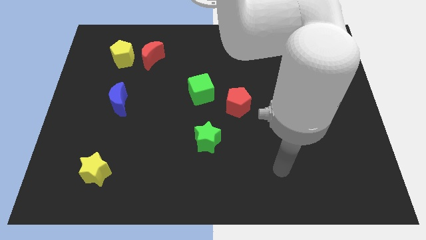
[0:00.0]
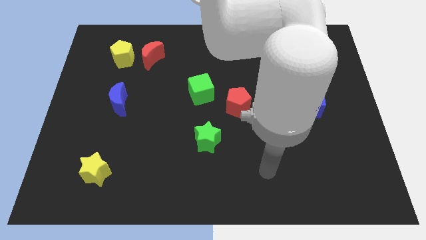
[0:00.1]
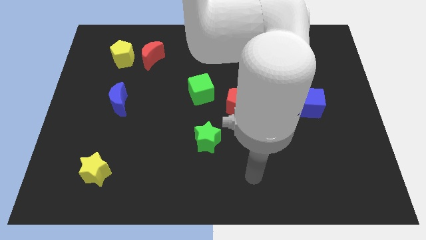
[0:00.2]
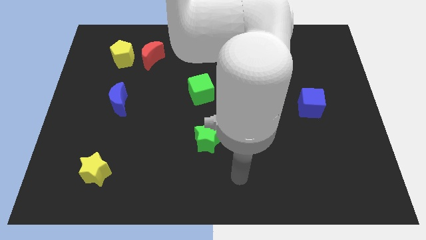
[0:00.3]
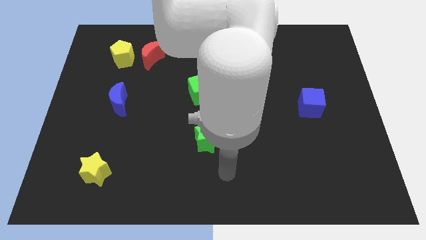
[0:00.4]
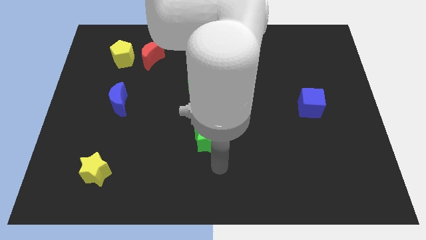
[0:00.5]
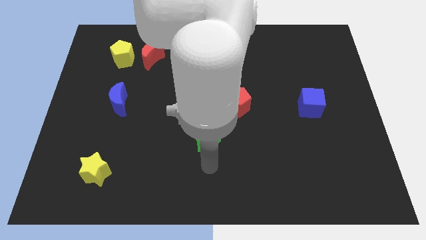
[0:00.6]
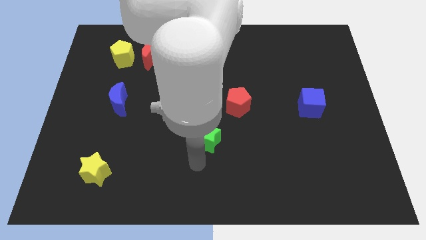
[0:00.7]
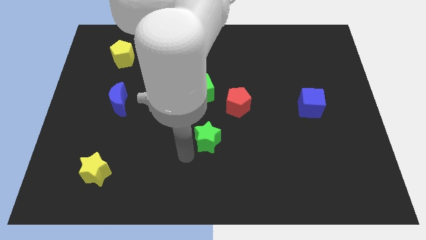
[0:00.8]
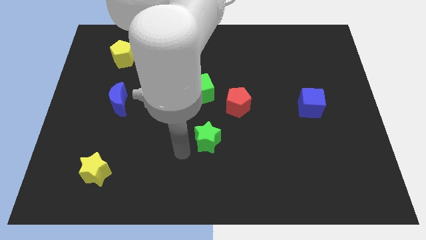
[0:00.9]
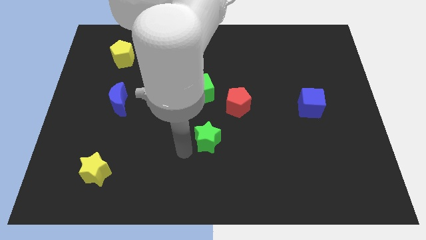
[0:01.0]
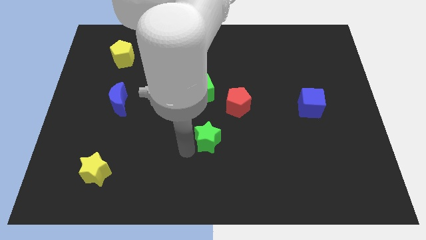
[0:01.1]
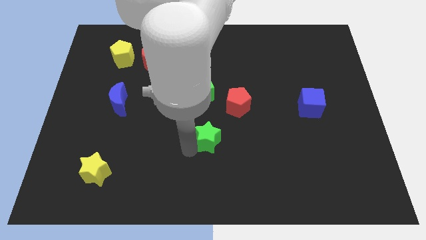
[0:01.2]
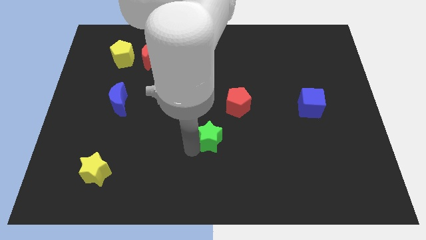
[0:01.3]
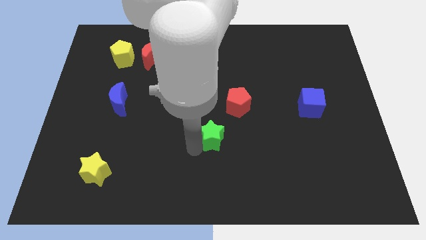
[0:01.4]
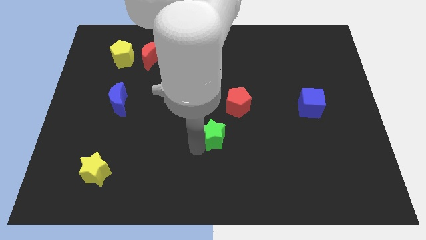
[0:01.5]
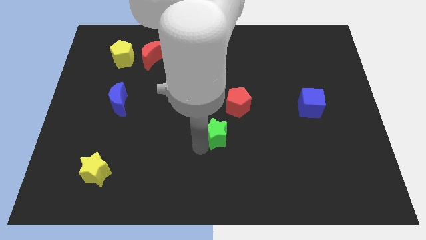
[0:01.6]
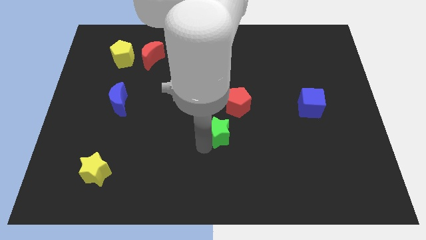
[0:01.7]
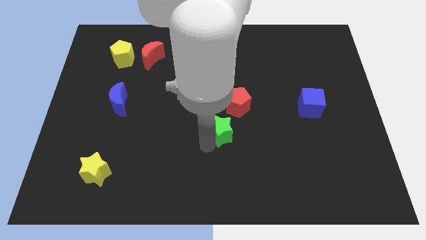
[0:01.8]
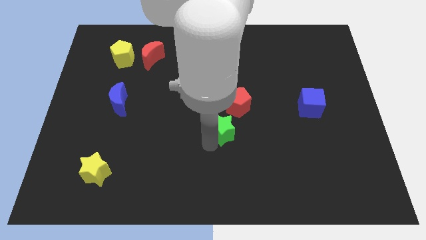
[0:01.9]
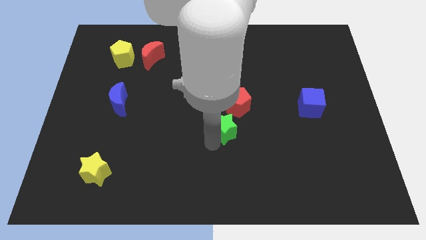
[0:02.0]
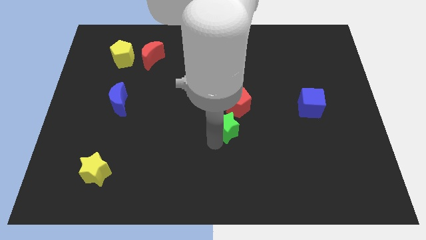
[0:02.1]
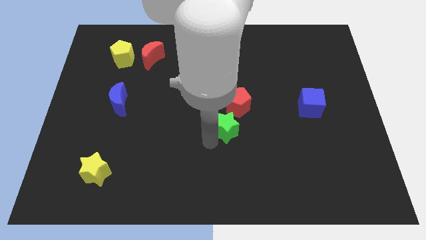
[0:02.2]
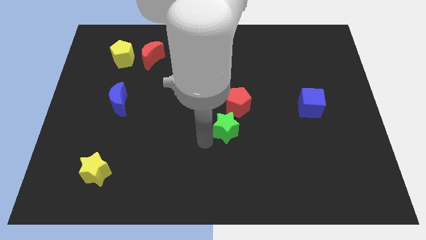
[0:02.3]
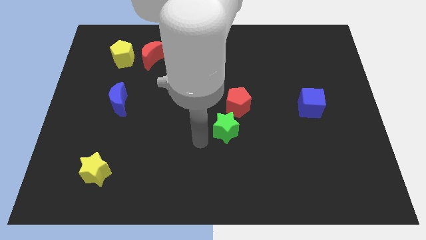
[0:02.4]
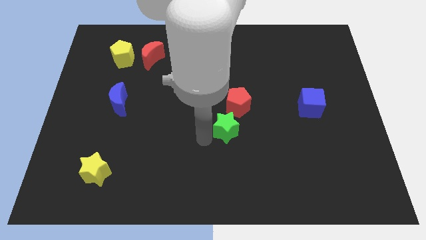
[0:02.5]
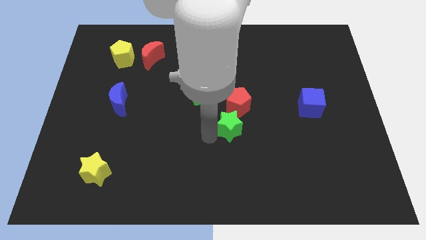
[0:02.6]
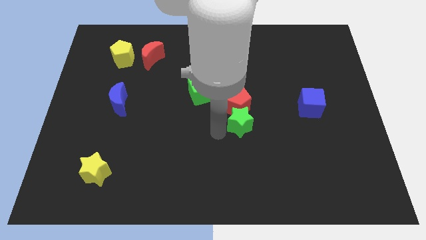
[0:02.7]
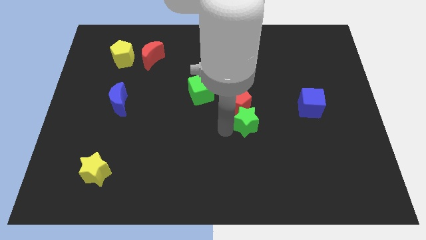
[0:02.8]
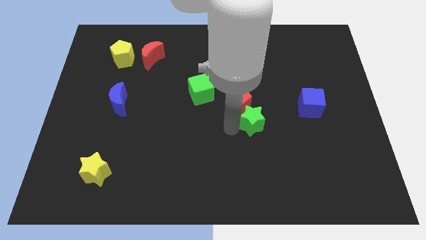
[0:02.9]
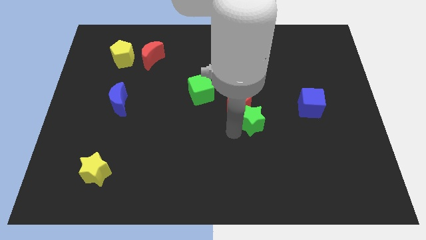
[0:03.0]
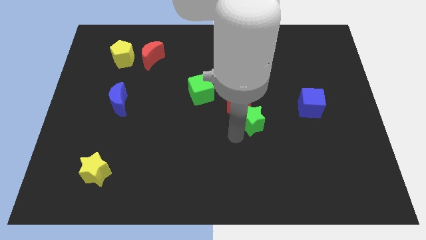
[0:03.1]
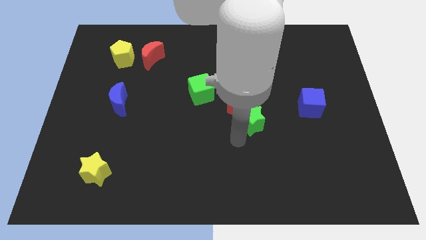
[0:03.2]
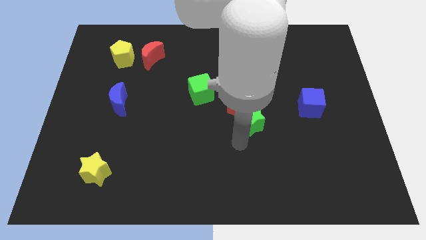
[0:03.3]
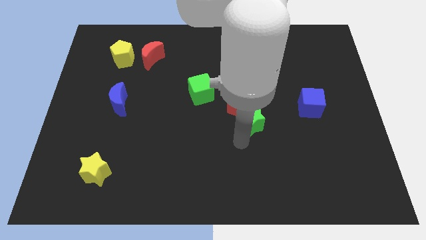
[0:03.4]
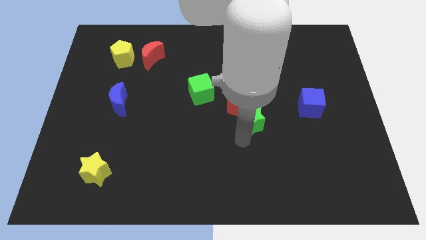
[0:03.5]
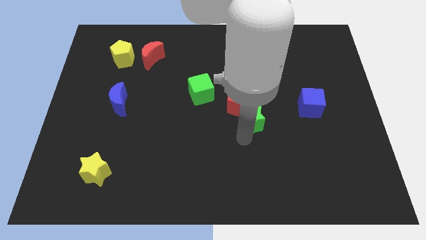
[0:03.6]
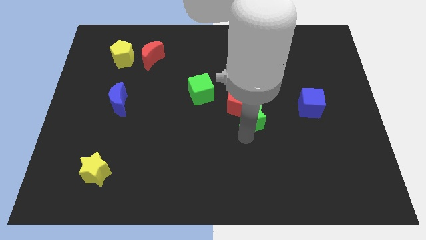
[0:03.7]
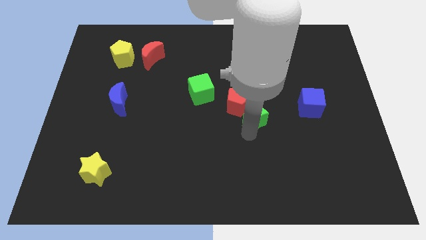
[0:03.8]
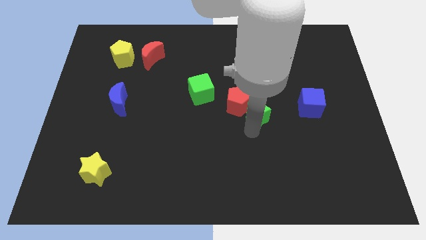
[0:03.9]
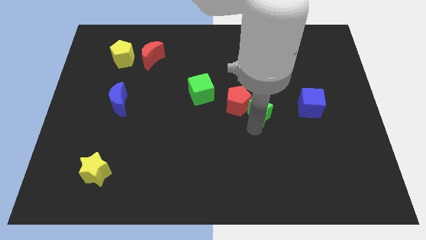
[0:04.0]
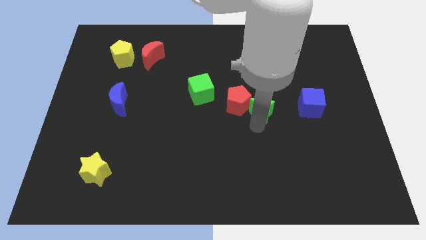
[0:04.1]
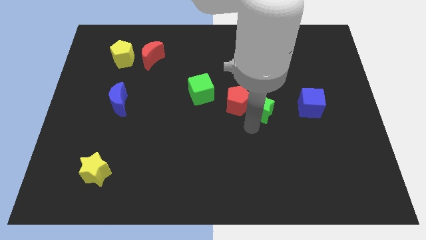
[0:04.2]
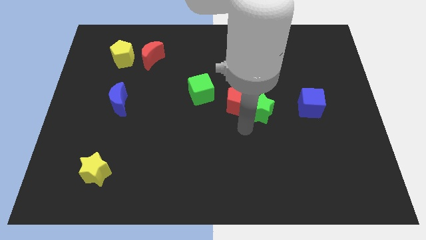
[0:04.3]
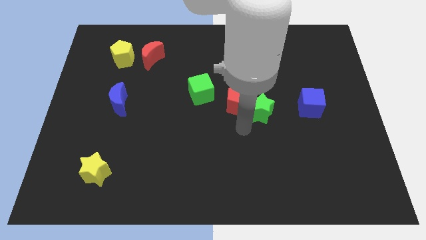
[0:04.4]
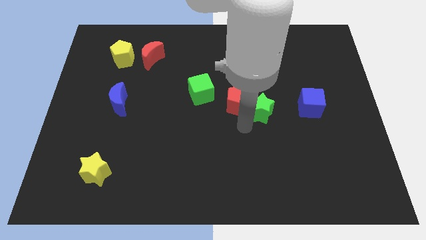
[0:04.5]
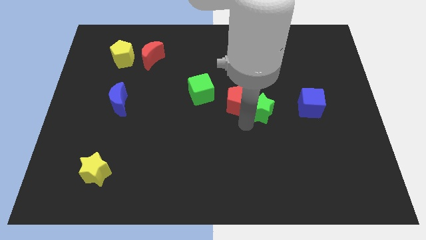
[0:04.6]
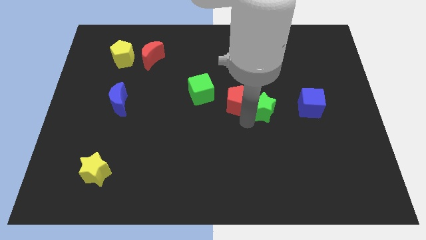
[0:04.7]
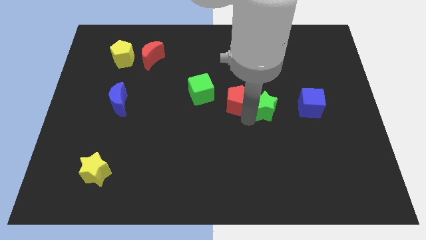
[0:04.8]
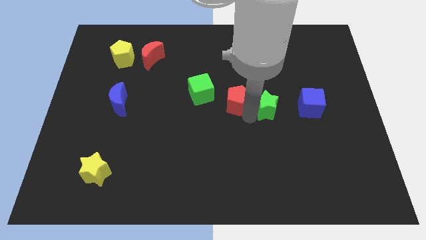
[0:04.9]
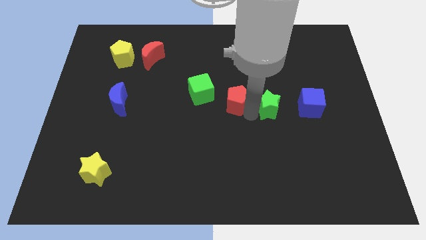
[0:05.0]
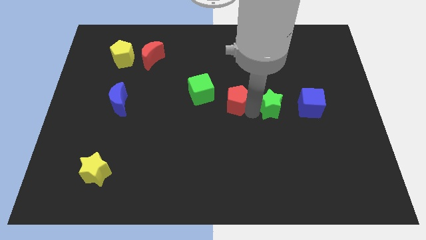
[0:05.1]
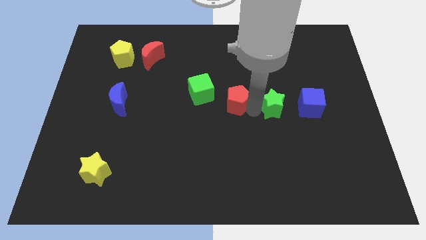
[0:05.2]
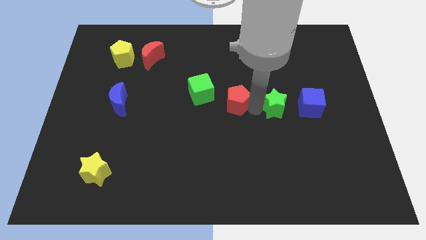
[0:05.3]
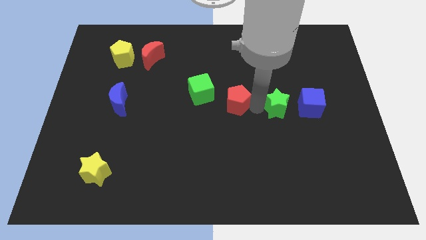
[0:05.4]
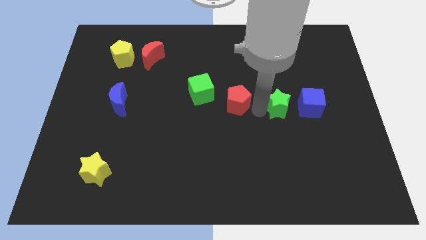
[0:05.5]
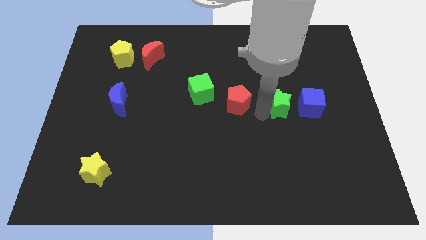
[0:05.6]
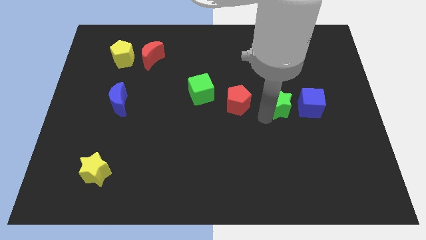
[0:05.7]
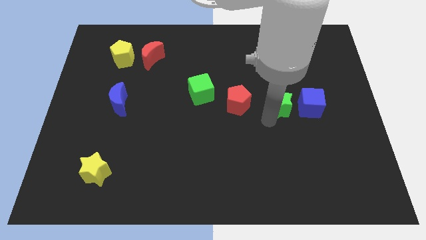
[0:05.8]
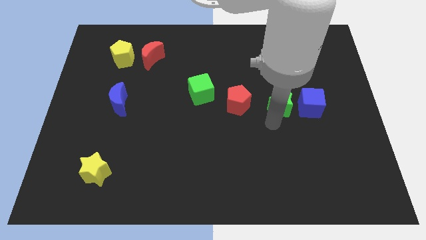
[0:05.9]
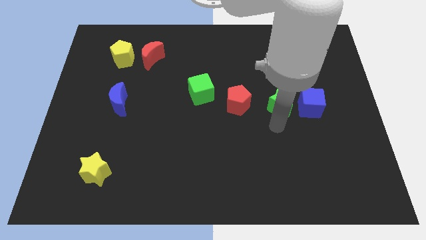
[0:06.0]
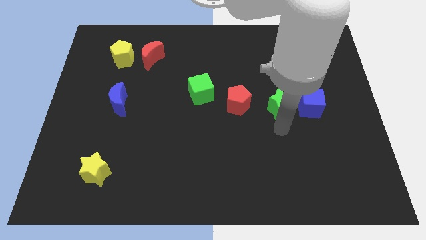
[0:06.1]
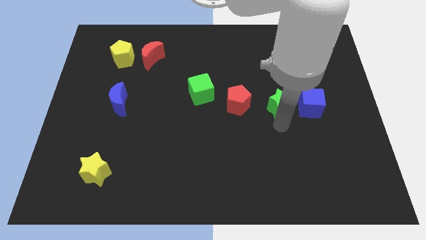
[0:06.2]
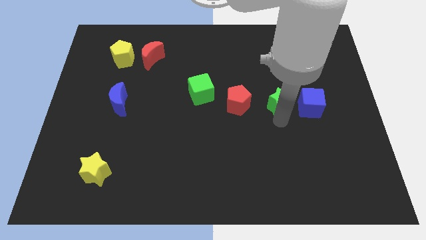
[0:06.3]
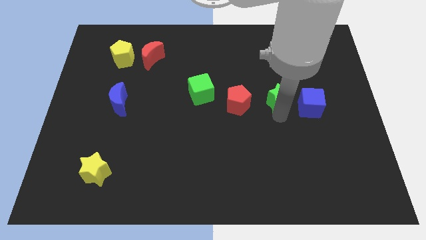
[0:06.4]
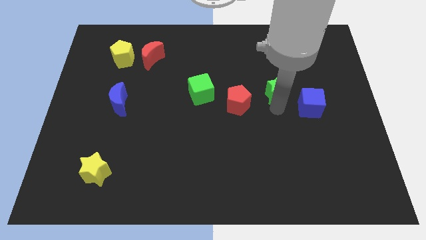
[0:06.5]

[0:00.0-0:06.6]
slide the green star upwards and to the right diagonally

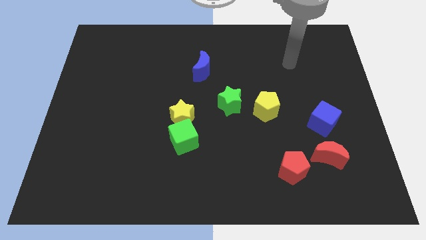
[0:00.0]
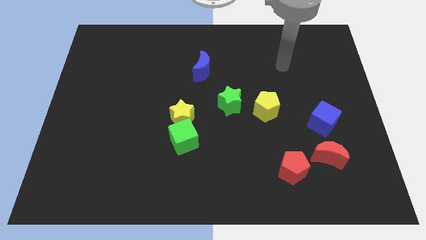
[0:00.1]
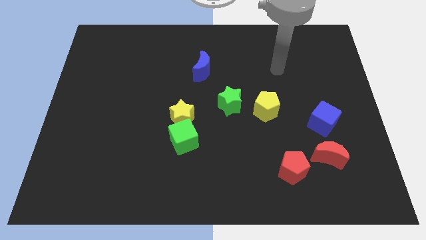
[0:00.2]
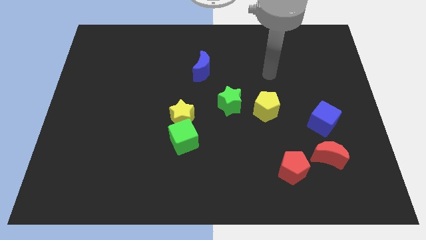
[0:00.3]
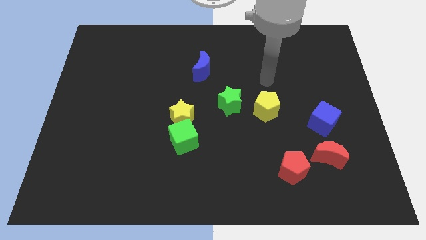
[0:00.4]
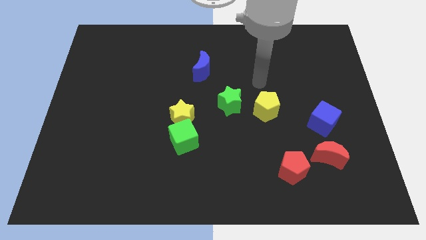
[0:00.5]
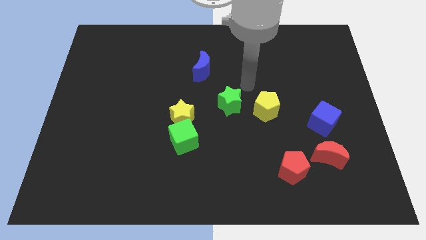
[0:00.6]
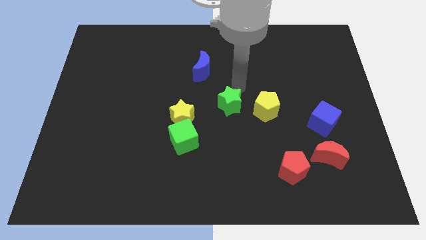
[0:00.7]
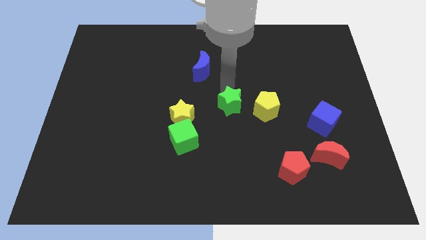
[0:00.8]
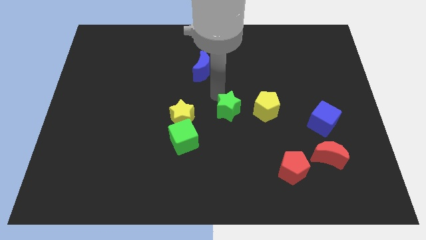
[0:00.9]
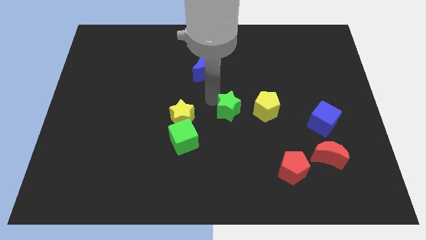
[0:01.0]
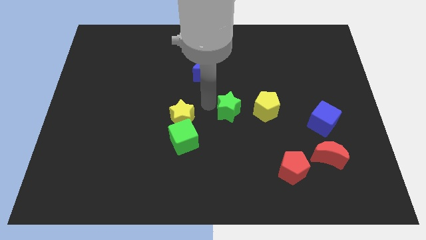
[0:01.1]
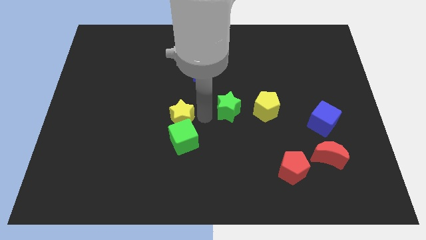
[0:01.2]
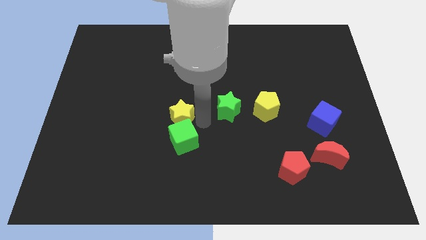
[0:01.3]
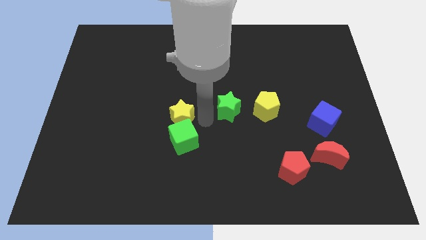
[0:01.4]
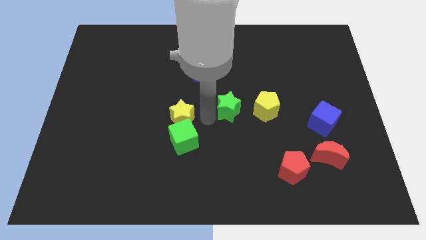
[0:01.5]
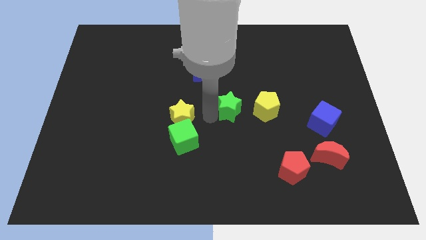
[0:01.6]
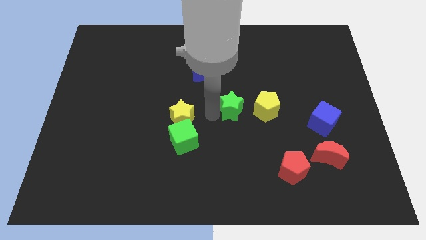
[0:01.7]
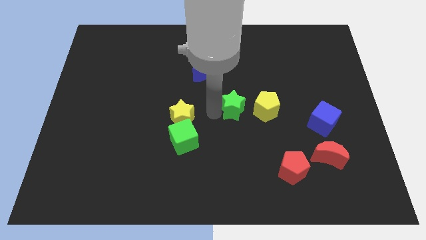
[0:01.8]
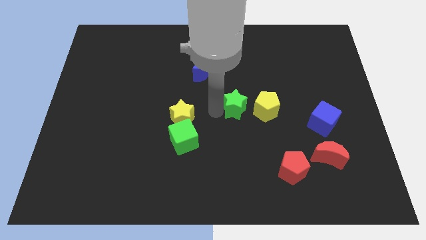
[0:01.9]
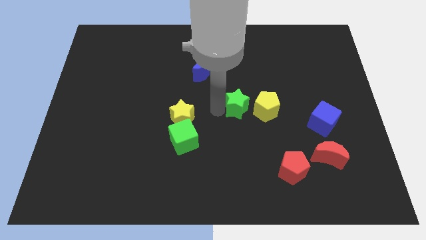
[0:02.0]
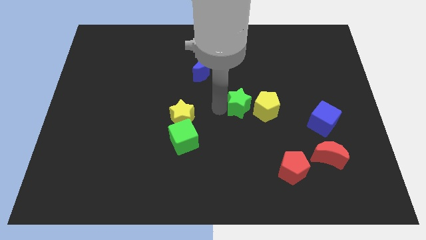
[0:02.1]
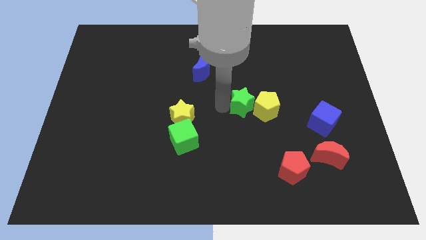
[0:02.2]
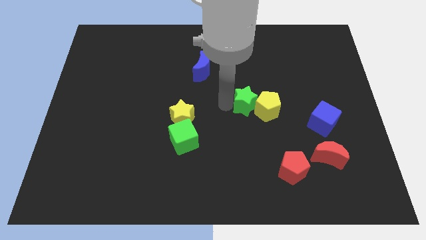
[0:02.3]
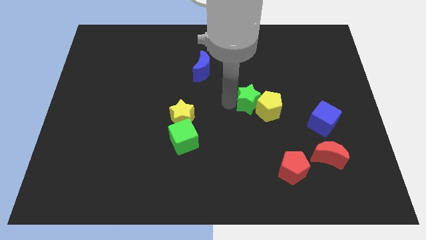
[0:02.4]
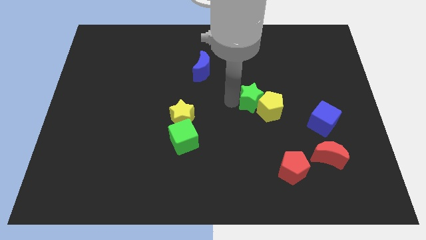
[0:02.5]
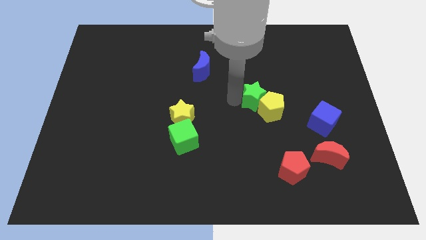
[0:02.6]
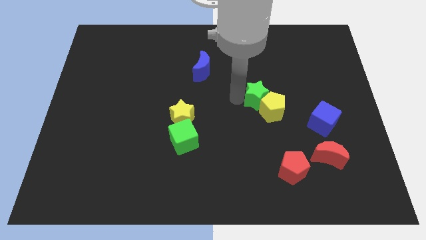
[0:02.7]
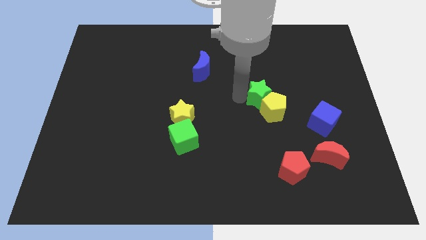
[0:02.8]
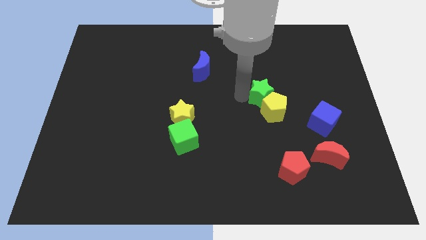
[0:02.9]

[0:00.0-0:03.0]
slightly move the green star right
